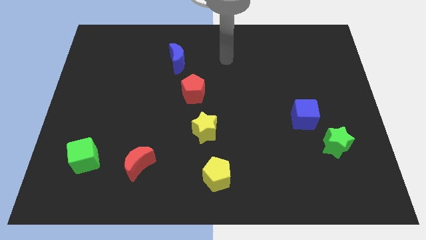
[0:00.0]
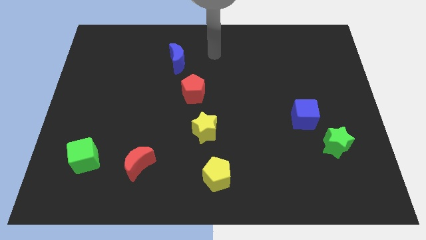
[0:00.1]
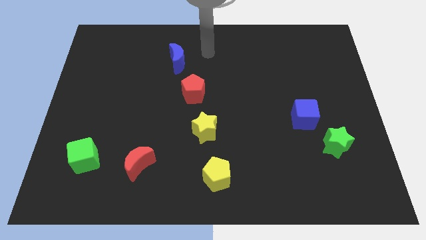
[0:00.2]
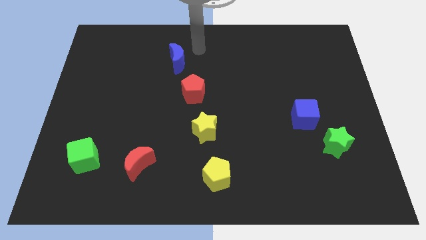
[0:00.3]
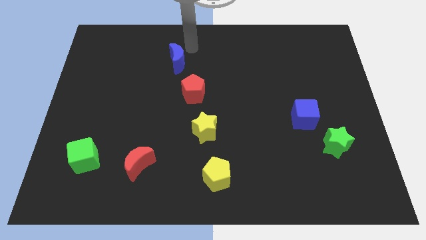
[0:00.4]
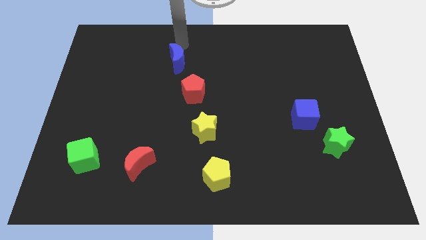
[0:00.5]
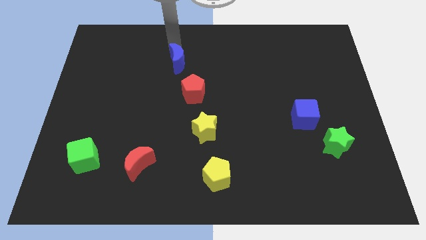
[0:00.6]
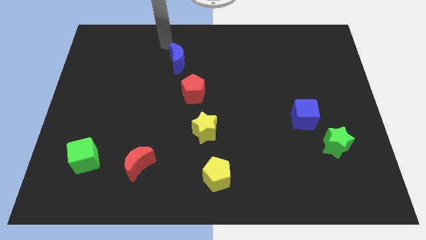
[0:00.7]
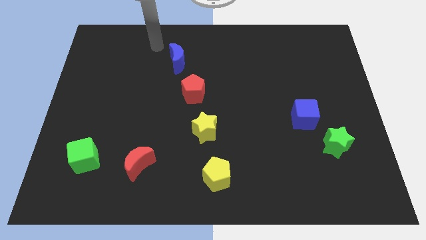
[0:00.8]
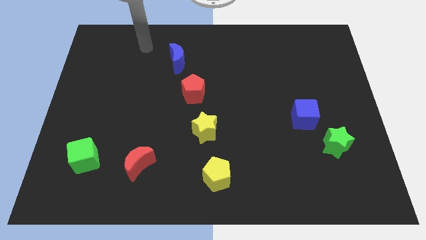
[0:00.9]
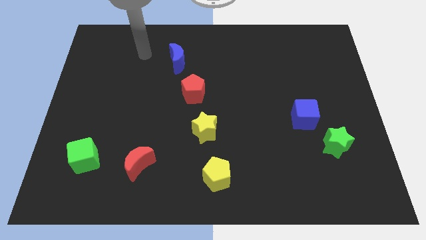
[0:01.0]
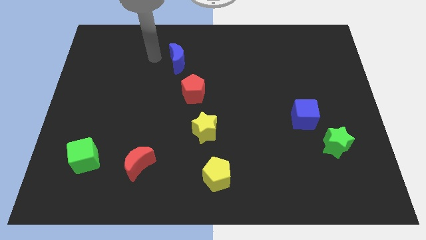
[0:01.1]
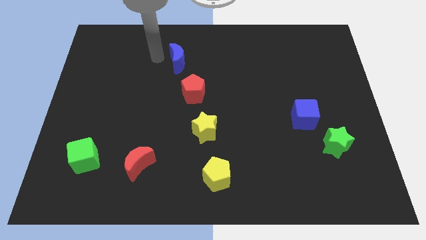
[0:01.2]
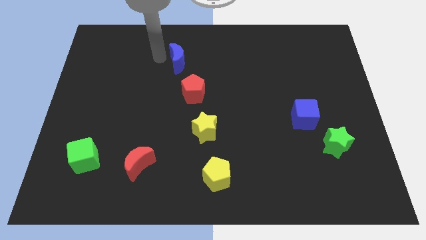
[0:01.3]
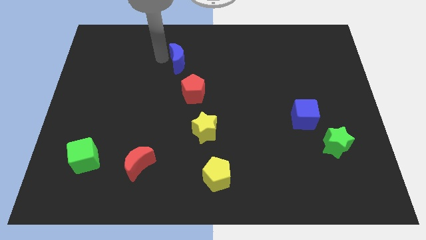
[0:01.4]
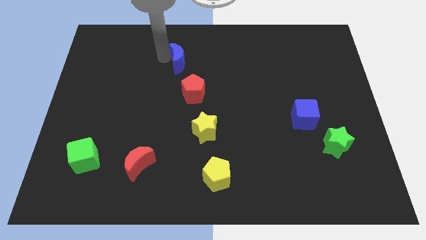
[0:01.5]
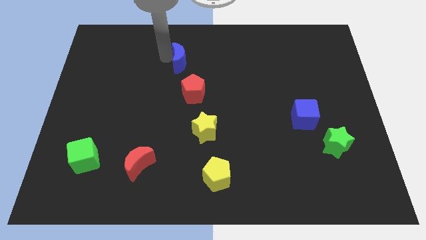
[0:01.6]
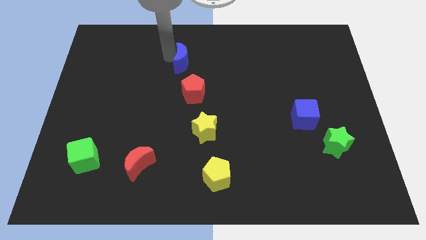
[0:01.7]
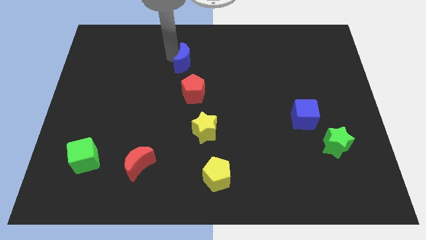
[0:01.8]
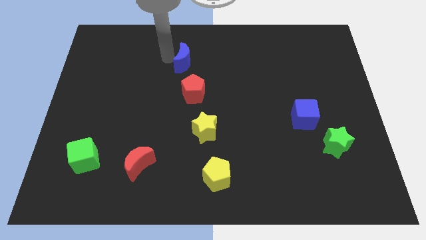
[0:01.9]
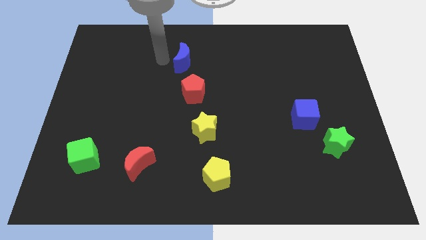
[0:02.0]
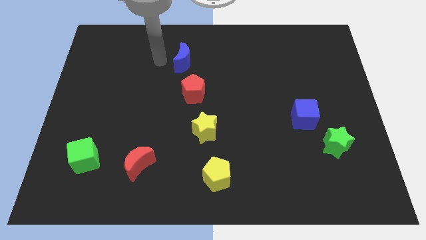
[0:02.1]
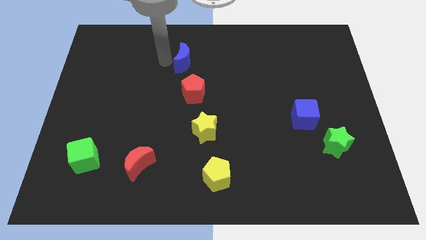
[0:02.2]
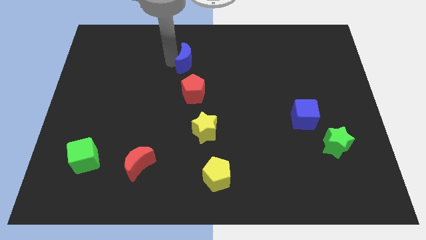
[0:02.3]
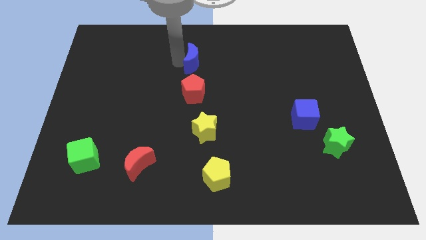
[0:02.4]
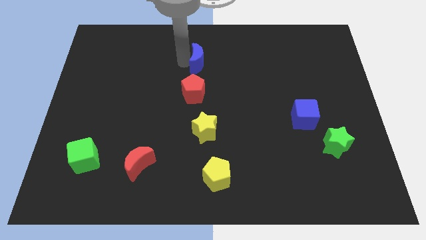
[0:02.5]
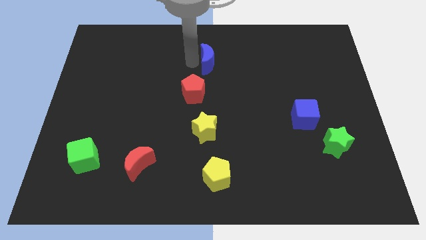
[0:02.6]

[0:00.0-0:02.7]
push the blue moon a little bit right

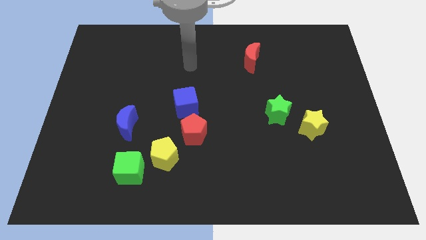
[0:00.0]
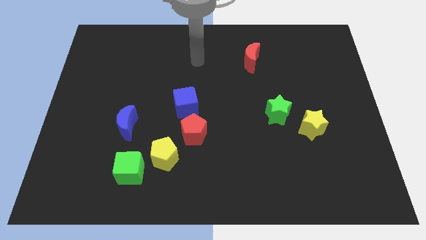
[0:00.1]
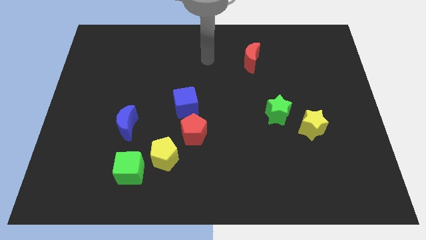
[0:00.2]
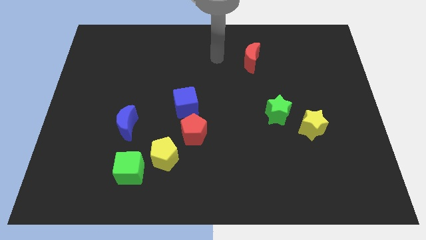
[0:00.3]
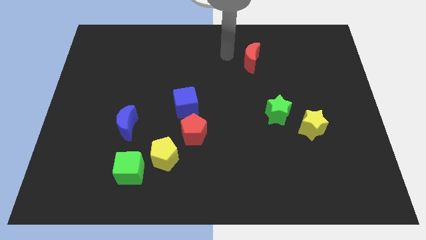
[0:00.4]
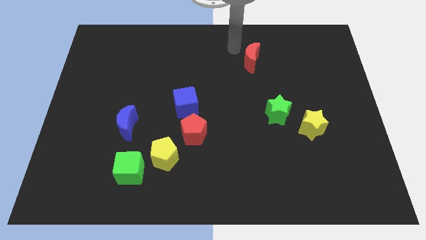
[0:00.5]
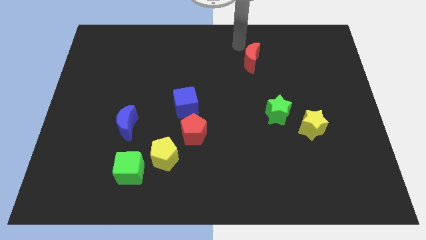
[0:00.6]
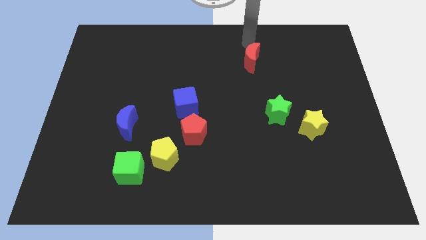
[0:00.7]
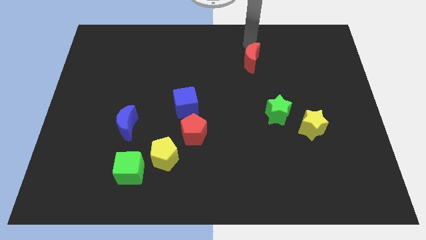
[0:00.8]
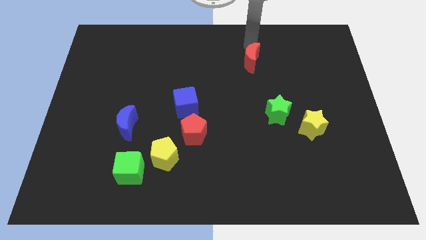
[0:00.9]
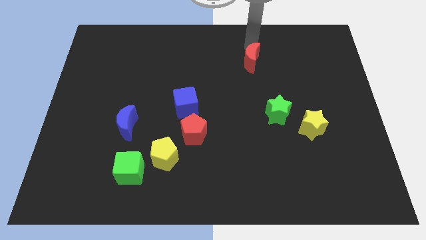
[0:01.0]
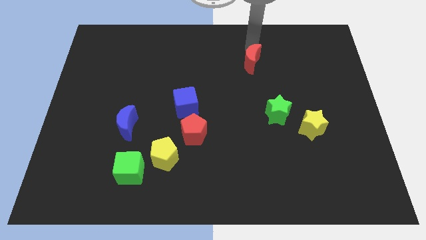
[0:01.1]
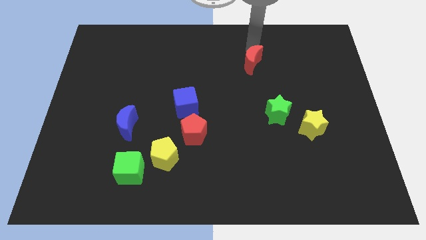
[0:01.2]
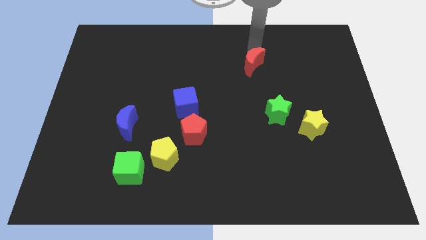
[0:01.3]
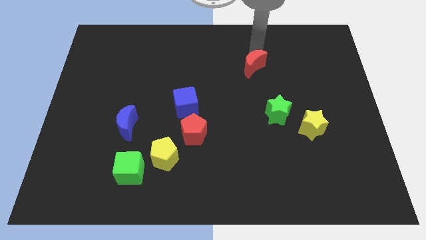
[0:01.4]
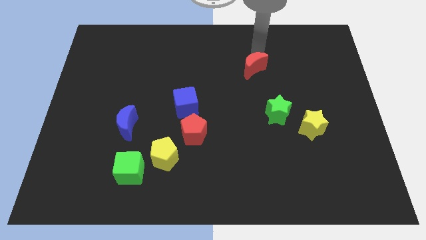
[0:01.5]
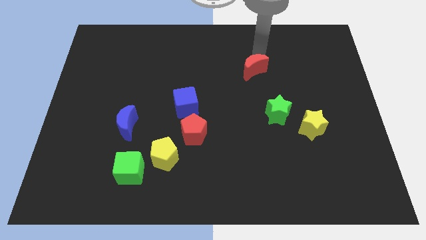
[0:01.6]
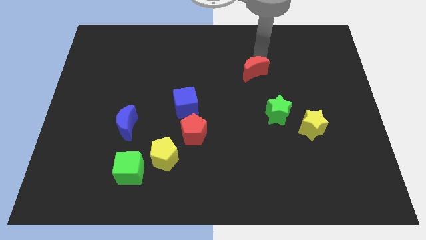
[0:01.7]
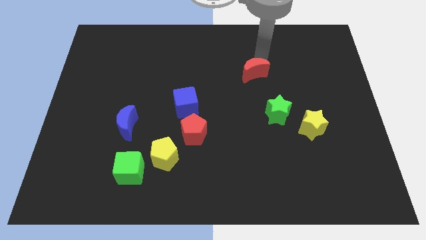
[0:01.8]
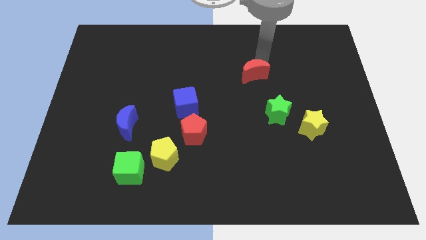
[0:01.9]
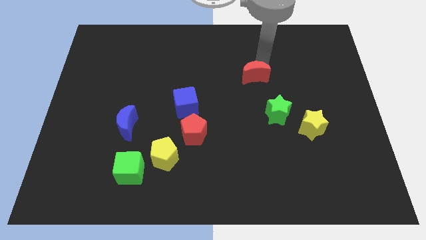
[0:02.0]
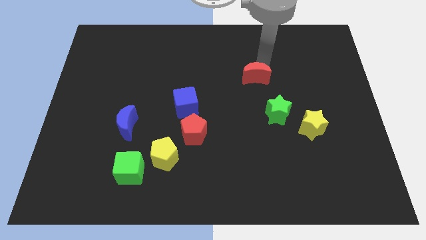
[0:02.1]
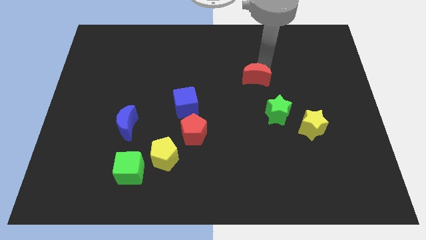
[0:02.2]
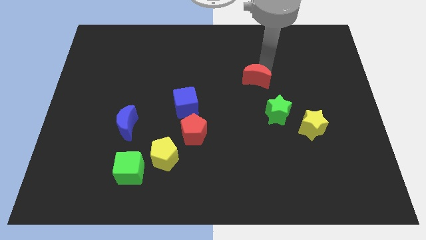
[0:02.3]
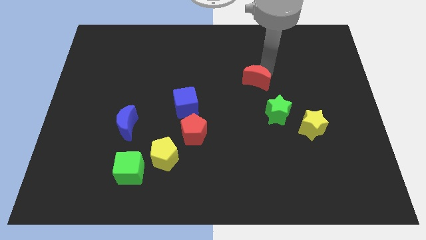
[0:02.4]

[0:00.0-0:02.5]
slightly slide the red moon down

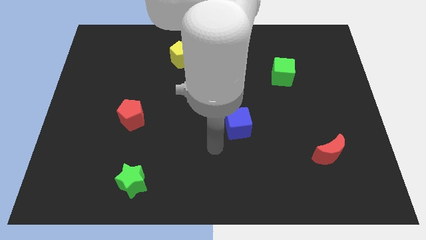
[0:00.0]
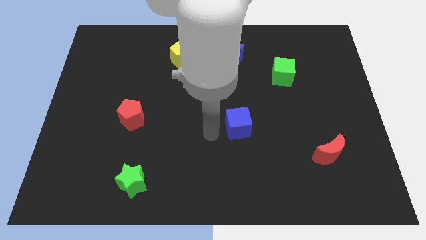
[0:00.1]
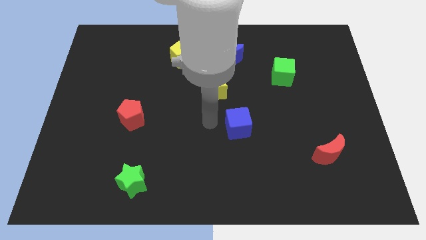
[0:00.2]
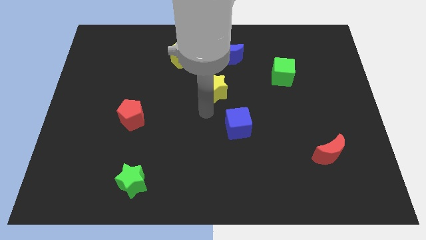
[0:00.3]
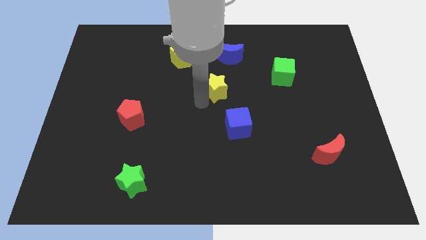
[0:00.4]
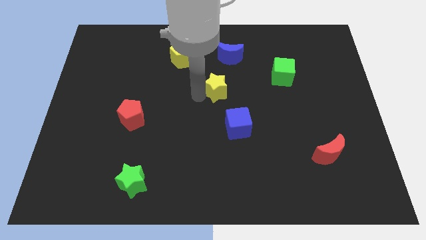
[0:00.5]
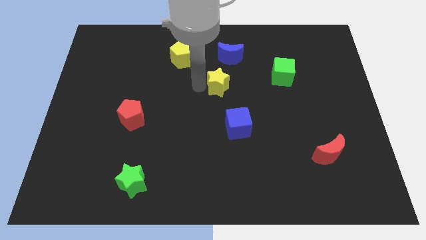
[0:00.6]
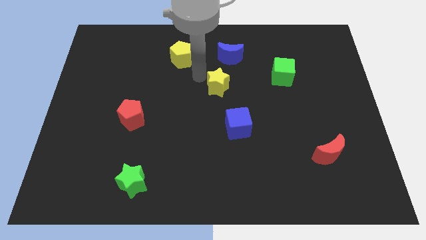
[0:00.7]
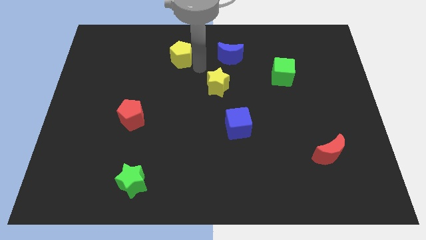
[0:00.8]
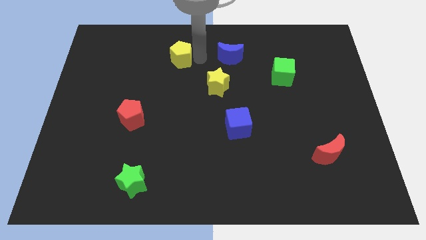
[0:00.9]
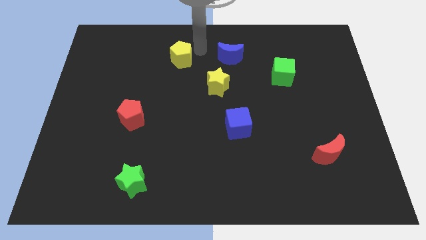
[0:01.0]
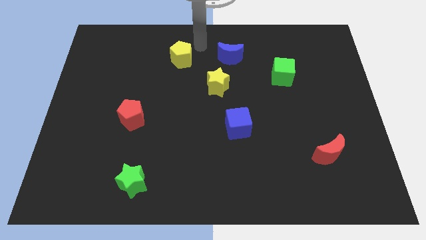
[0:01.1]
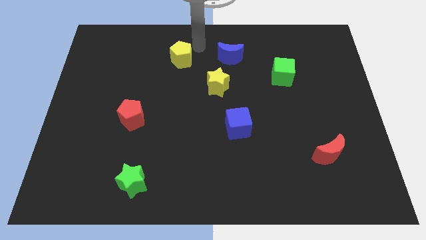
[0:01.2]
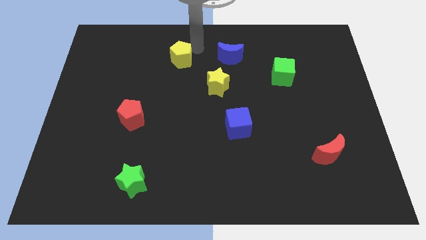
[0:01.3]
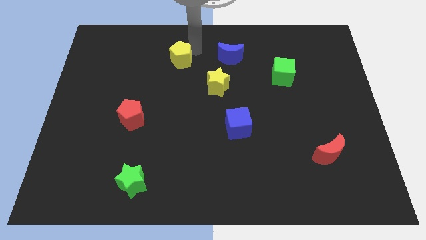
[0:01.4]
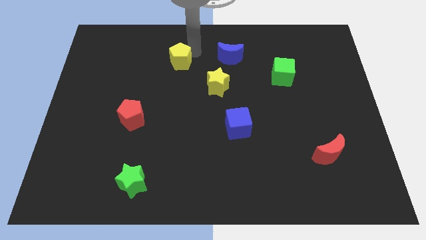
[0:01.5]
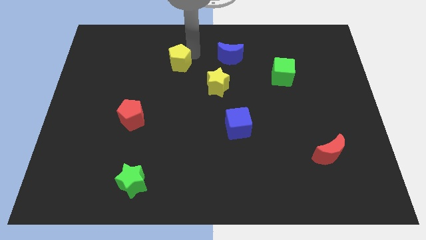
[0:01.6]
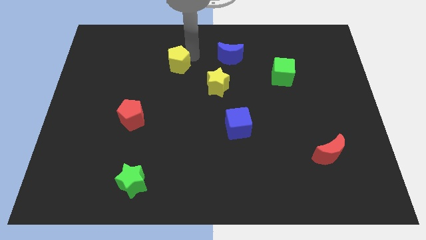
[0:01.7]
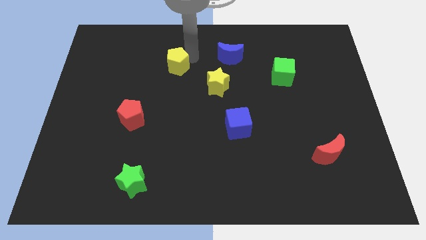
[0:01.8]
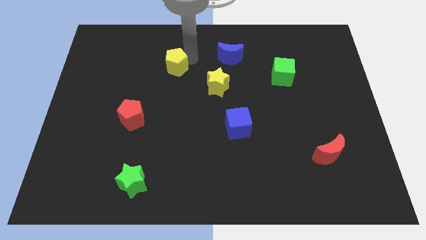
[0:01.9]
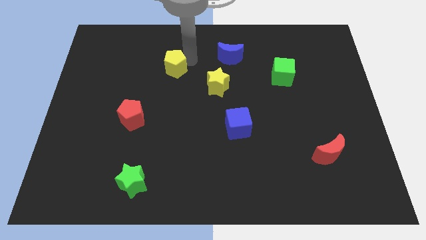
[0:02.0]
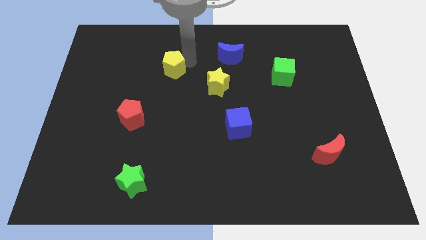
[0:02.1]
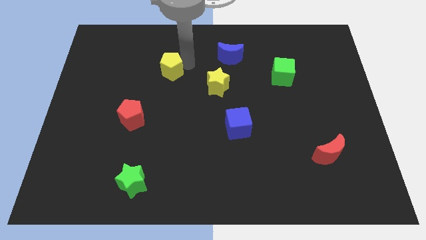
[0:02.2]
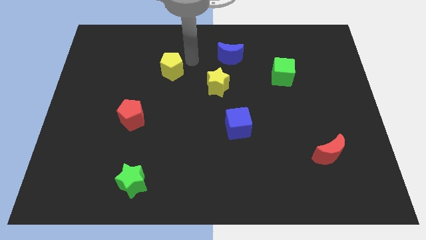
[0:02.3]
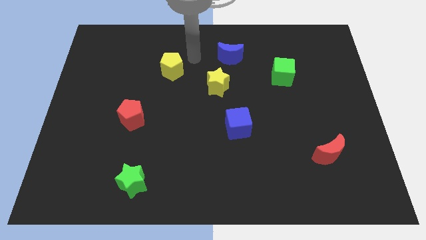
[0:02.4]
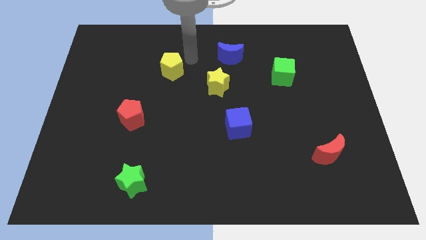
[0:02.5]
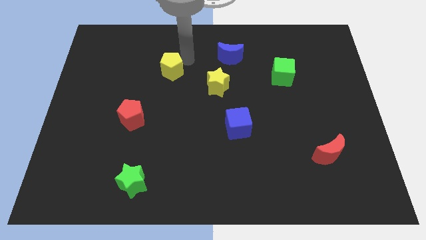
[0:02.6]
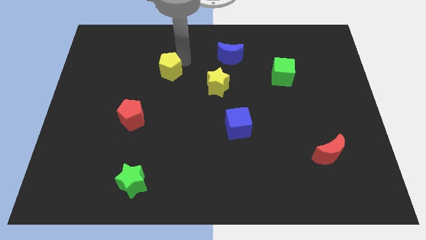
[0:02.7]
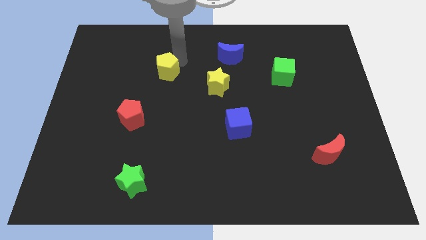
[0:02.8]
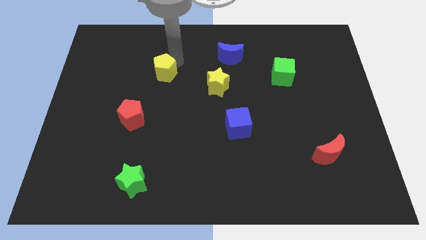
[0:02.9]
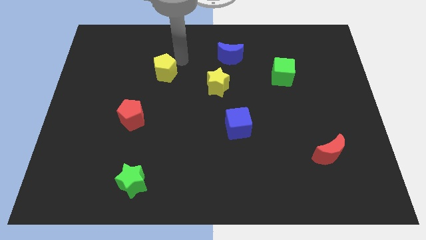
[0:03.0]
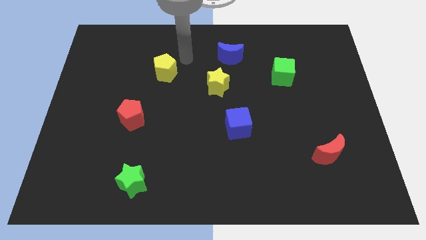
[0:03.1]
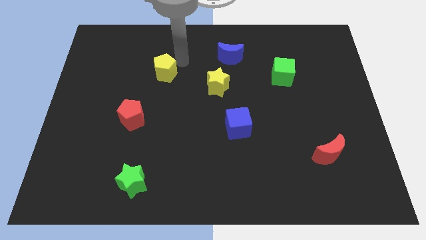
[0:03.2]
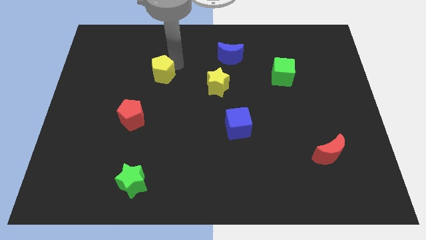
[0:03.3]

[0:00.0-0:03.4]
slightly move the yellow pentagon diagonally down and to the left
